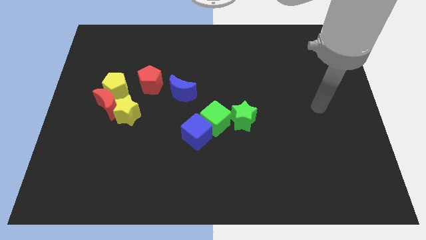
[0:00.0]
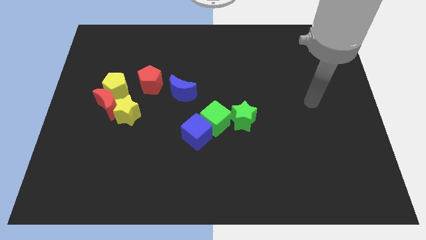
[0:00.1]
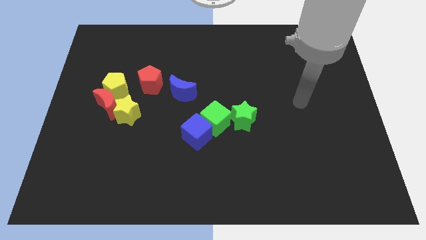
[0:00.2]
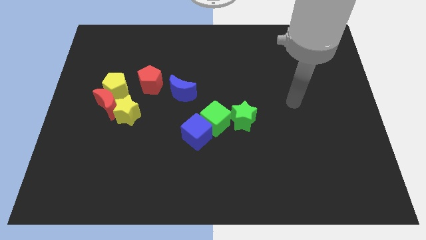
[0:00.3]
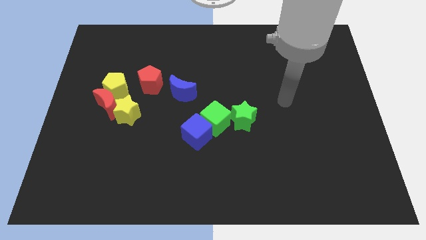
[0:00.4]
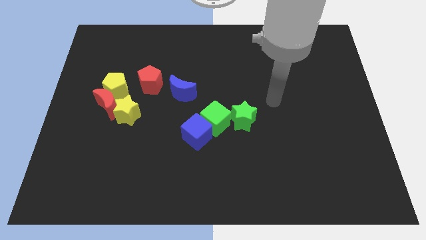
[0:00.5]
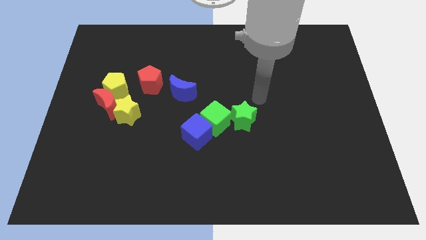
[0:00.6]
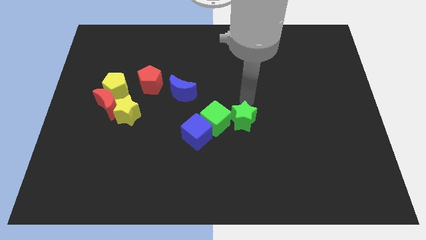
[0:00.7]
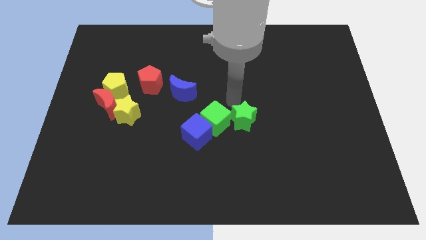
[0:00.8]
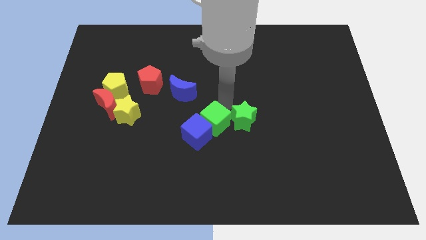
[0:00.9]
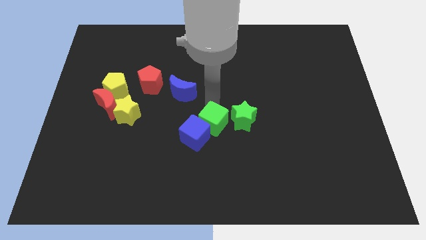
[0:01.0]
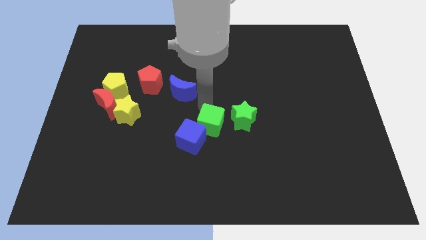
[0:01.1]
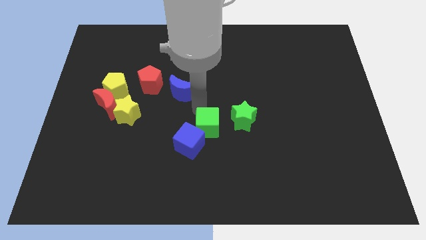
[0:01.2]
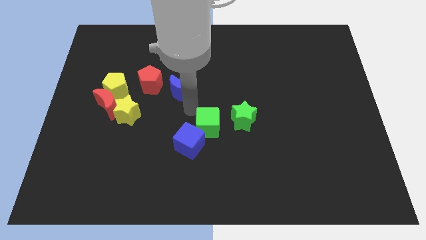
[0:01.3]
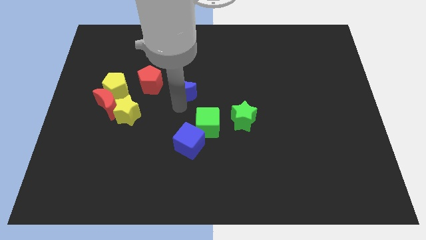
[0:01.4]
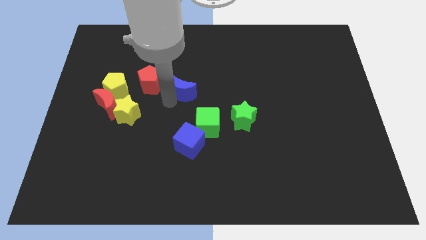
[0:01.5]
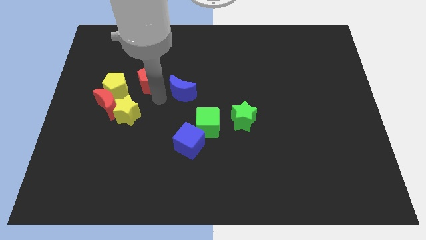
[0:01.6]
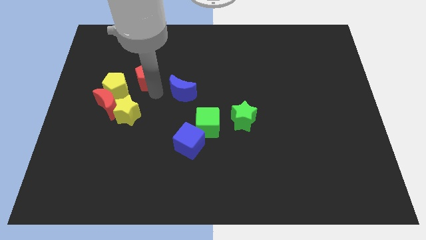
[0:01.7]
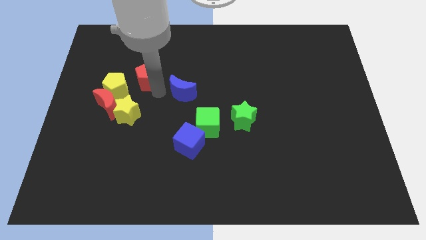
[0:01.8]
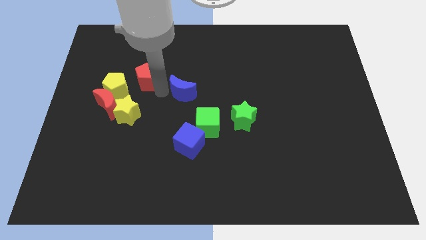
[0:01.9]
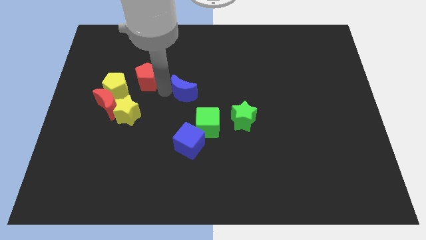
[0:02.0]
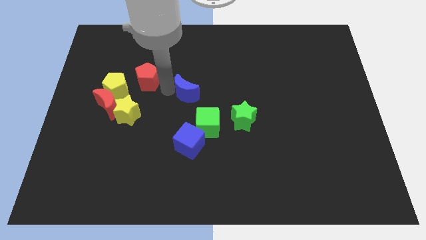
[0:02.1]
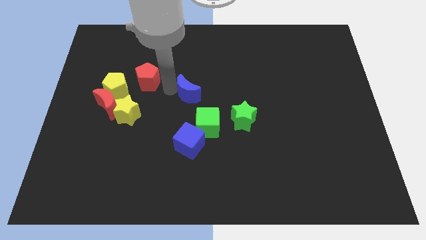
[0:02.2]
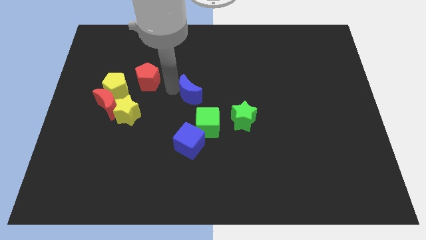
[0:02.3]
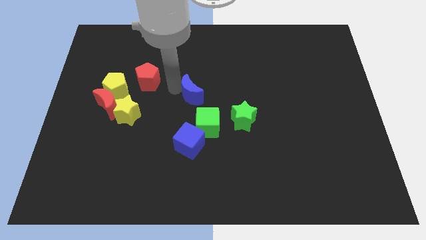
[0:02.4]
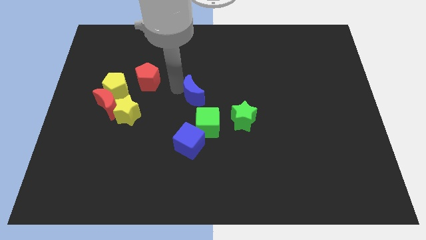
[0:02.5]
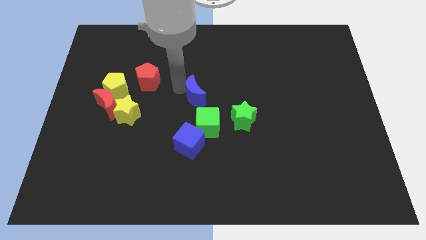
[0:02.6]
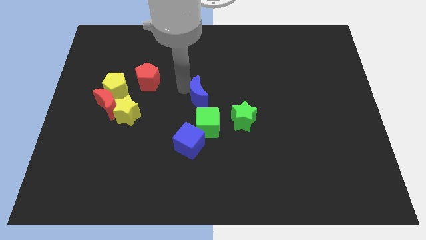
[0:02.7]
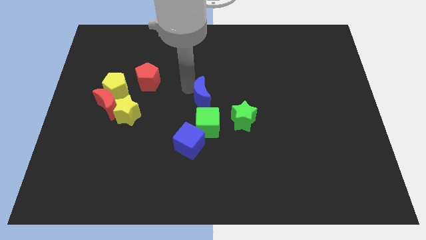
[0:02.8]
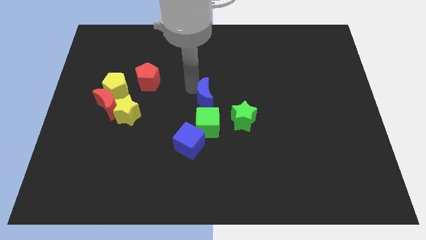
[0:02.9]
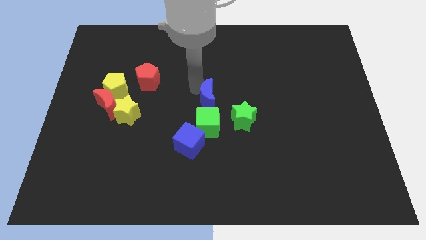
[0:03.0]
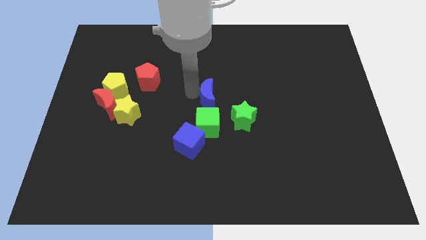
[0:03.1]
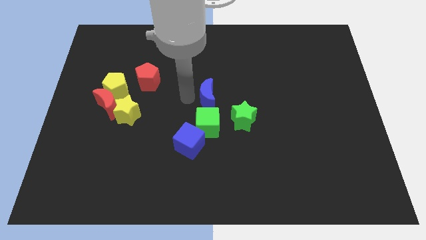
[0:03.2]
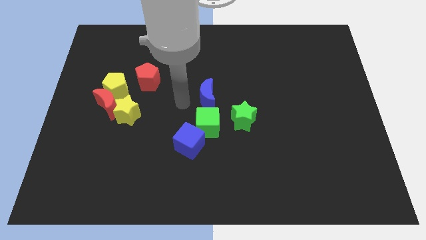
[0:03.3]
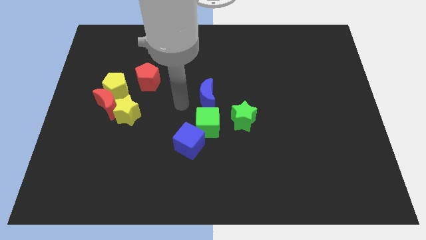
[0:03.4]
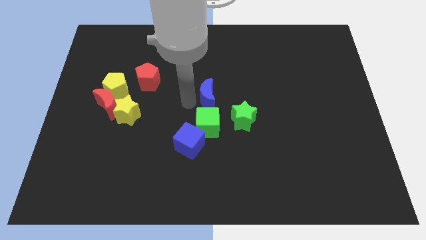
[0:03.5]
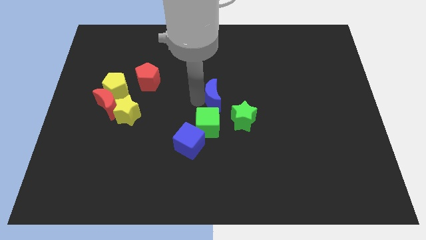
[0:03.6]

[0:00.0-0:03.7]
slightly move the blue moon to the right

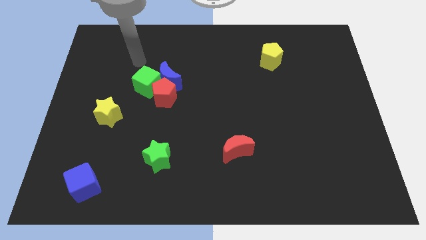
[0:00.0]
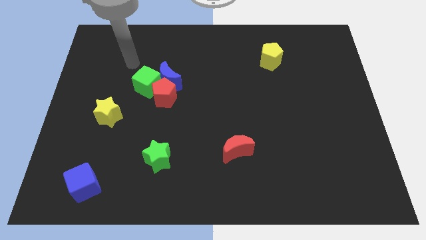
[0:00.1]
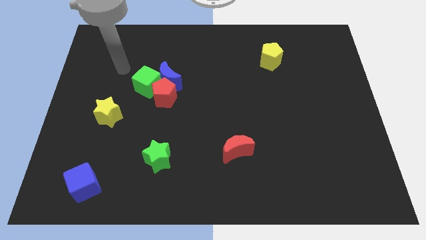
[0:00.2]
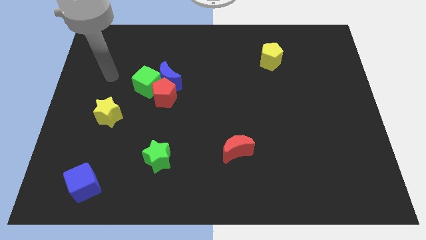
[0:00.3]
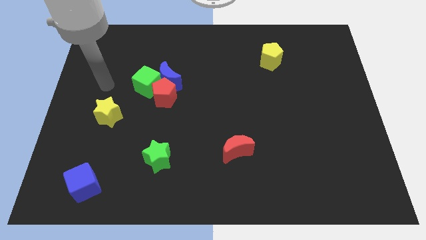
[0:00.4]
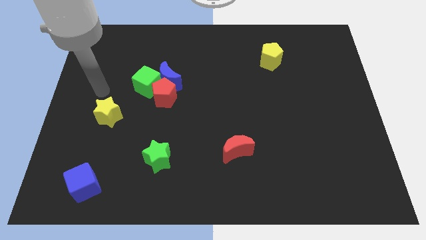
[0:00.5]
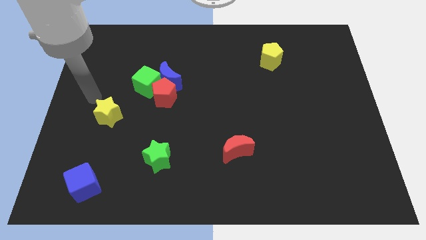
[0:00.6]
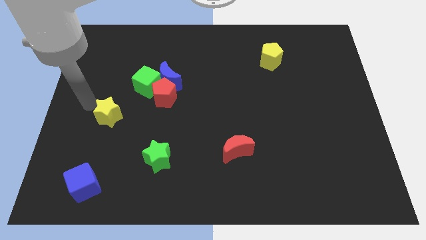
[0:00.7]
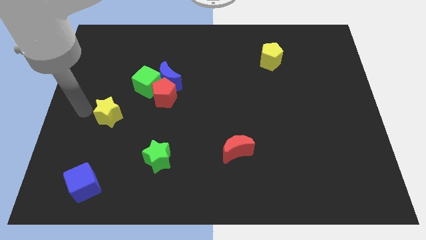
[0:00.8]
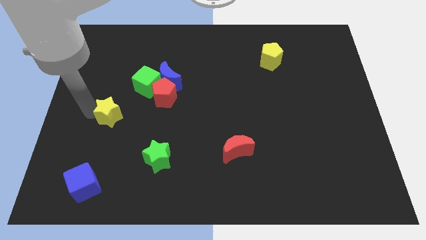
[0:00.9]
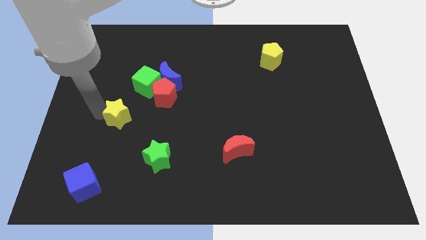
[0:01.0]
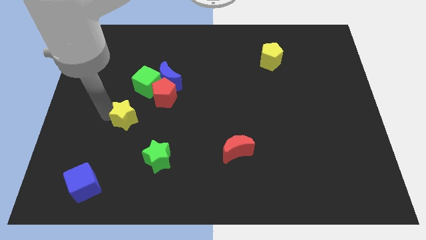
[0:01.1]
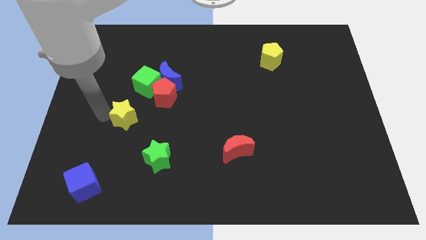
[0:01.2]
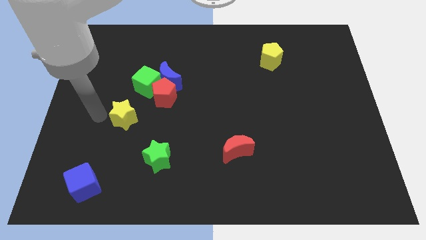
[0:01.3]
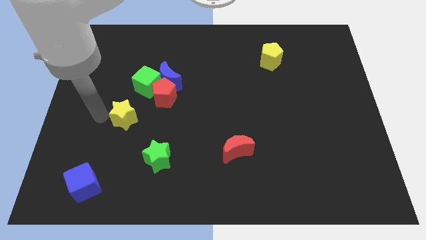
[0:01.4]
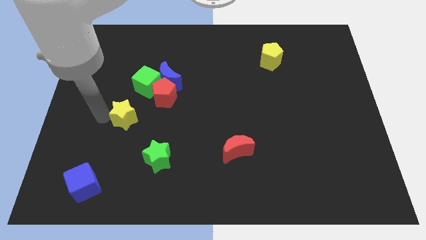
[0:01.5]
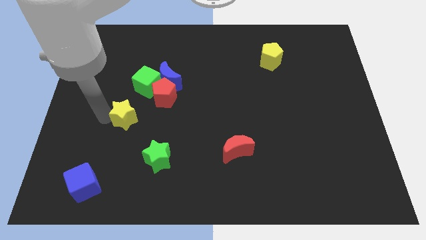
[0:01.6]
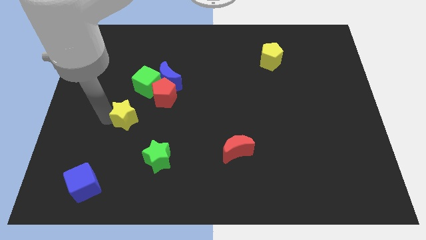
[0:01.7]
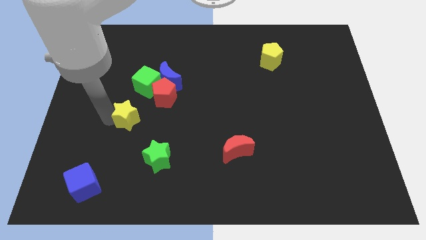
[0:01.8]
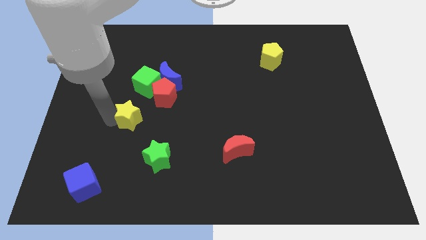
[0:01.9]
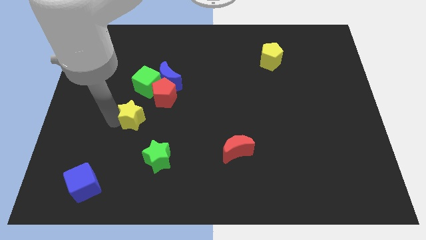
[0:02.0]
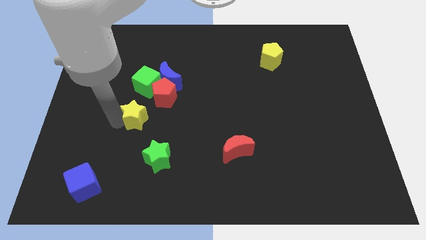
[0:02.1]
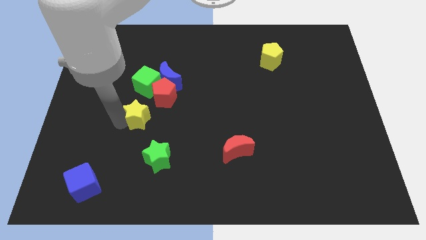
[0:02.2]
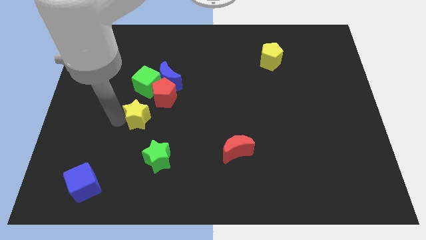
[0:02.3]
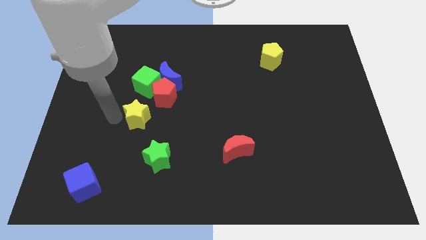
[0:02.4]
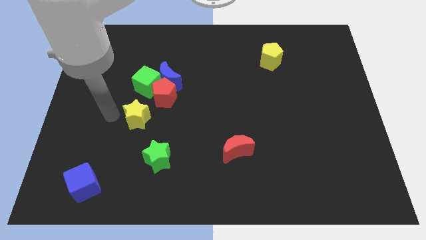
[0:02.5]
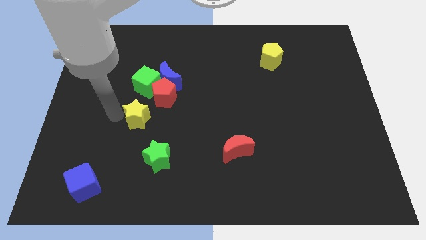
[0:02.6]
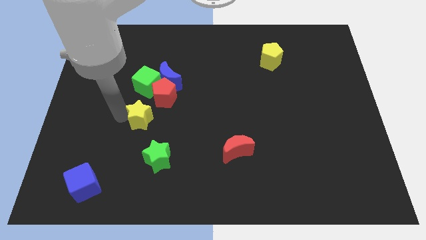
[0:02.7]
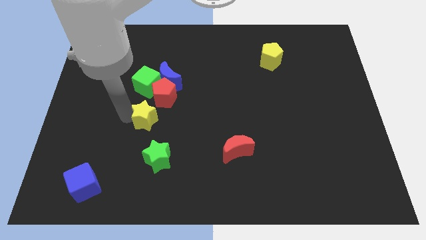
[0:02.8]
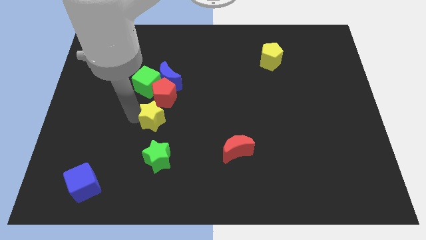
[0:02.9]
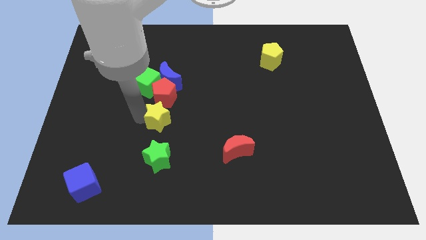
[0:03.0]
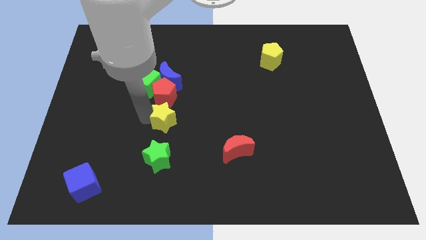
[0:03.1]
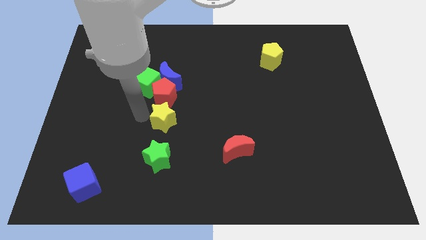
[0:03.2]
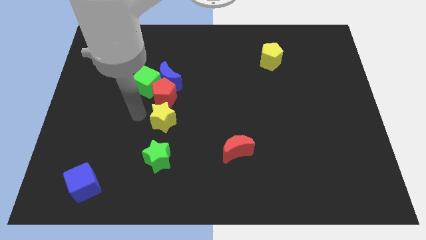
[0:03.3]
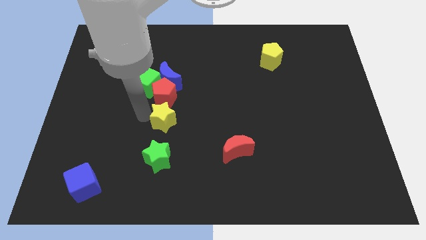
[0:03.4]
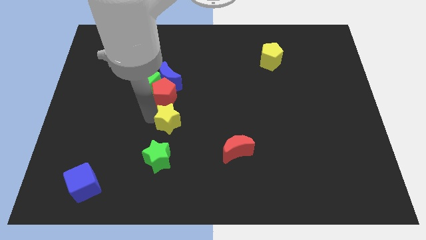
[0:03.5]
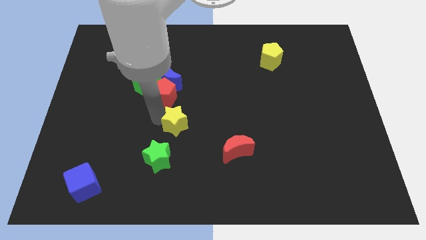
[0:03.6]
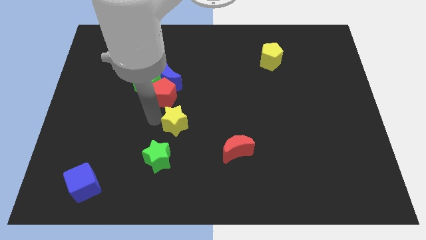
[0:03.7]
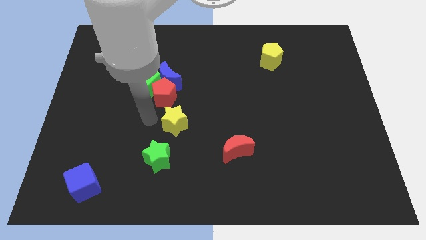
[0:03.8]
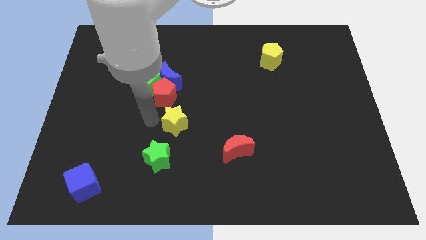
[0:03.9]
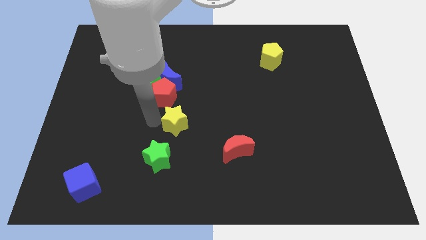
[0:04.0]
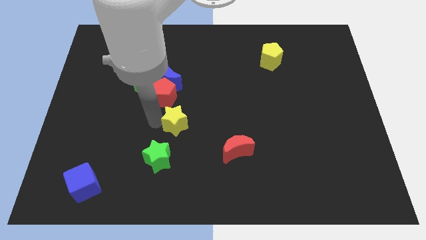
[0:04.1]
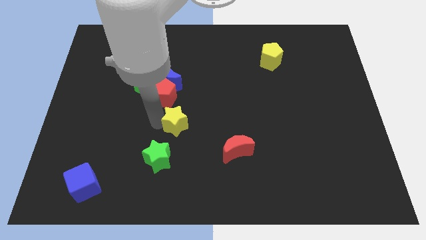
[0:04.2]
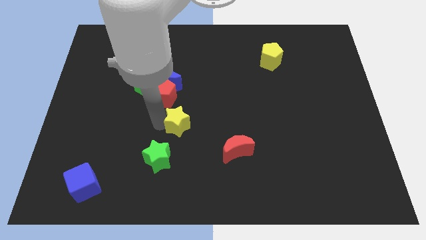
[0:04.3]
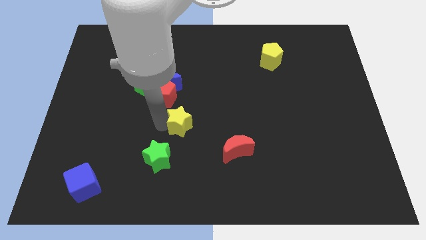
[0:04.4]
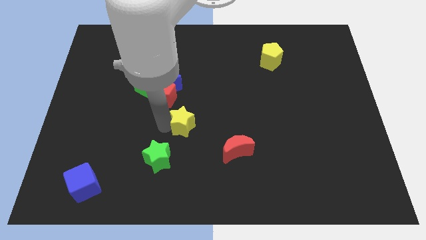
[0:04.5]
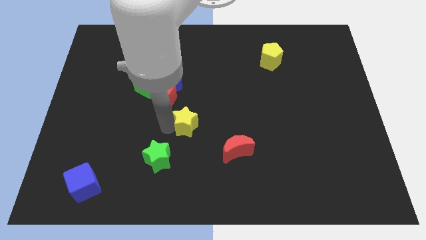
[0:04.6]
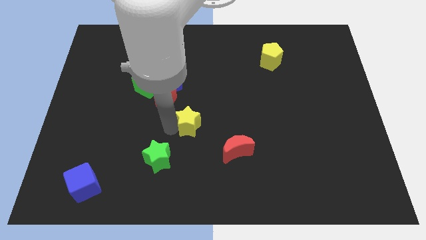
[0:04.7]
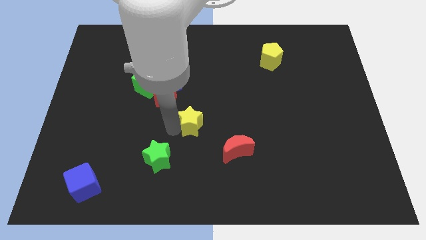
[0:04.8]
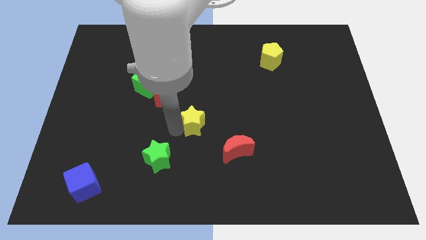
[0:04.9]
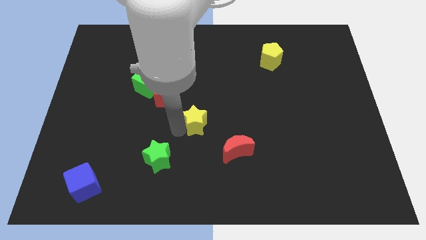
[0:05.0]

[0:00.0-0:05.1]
push the yellow star right
